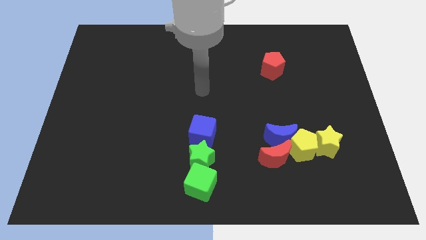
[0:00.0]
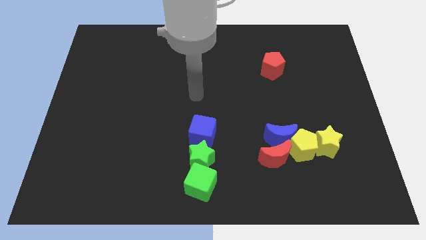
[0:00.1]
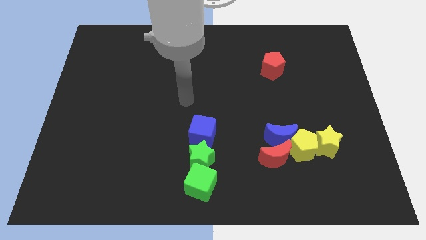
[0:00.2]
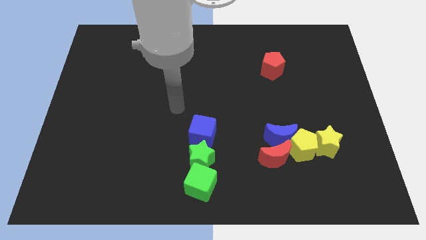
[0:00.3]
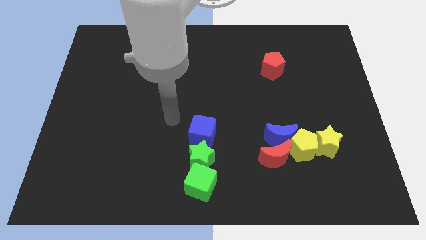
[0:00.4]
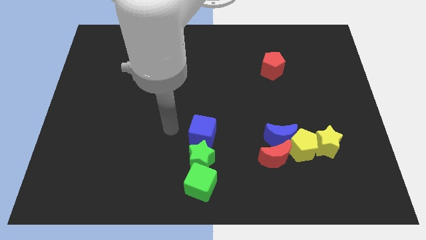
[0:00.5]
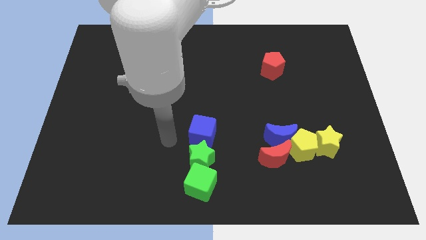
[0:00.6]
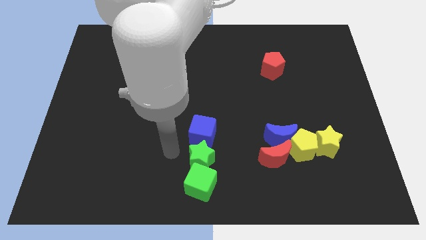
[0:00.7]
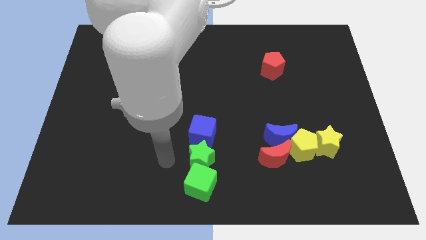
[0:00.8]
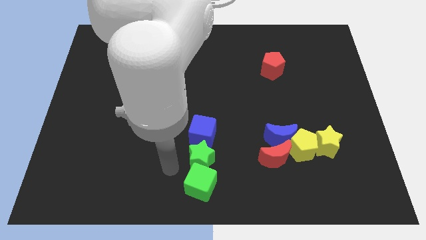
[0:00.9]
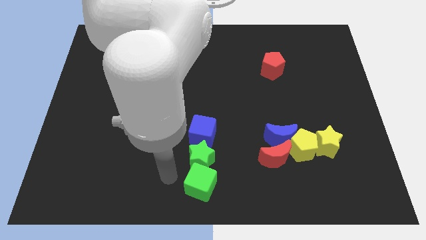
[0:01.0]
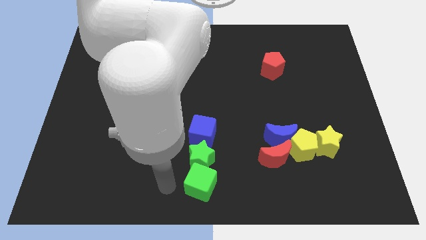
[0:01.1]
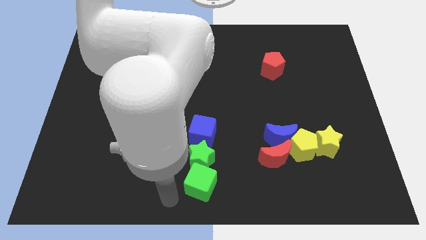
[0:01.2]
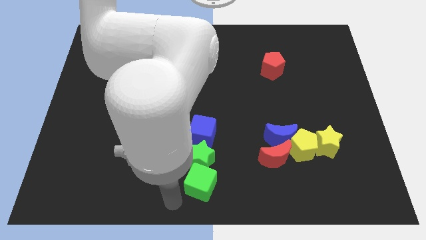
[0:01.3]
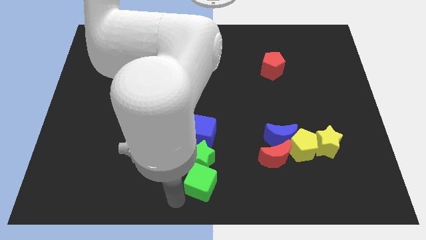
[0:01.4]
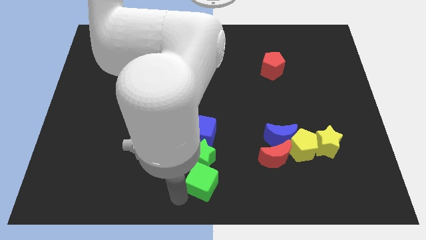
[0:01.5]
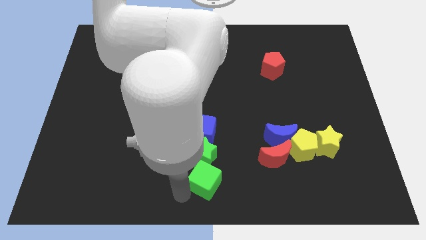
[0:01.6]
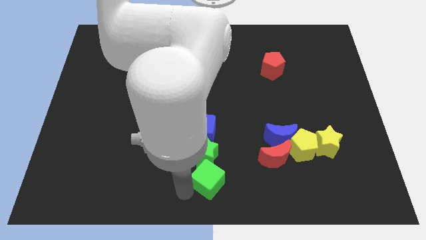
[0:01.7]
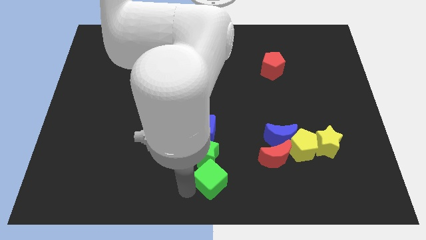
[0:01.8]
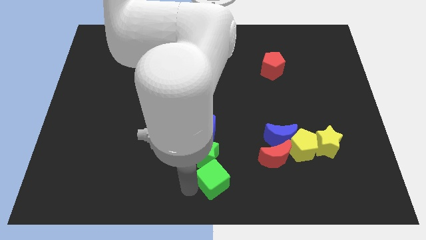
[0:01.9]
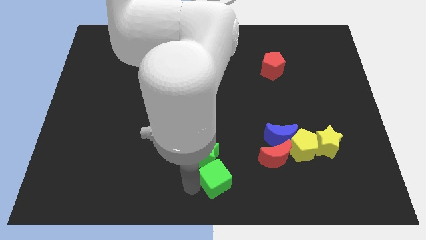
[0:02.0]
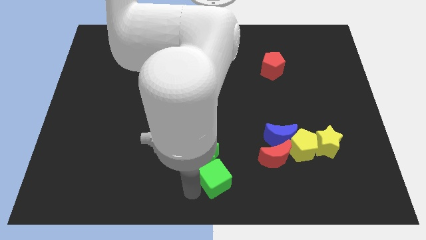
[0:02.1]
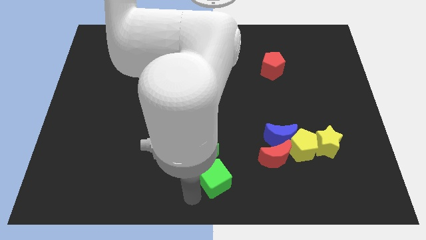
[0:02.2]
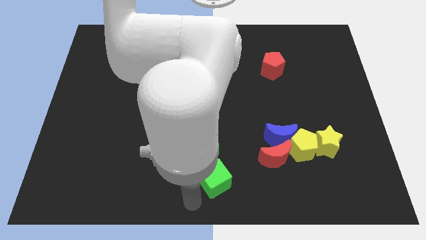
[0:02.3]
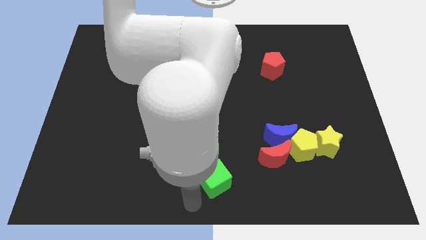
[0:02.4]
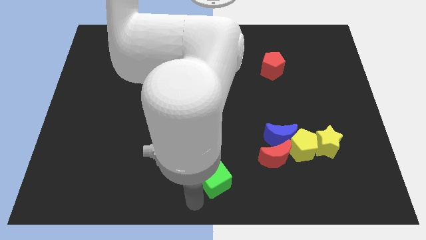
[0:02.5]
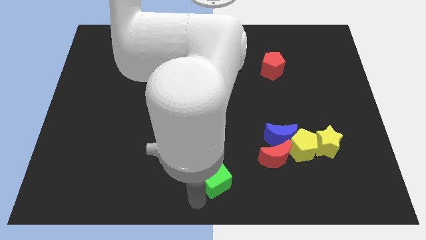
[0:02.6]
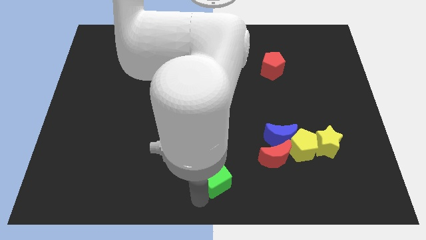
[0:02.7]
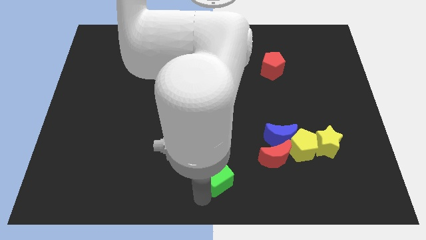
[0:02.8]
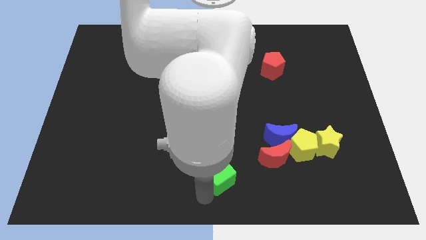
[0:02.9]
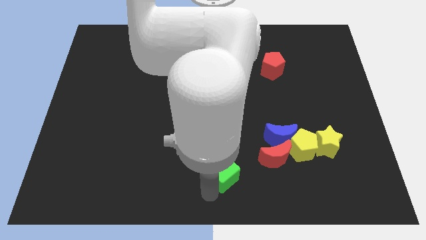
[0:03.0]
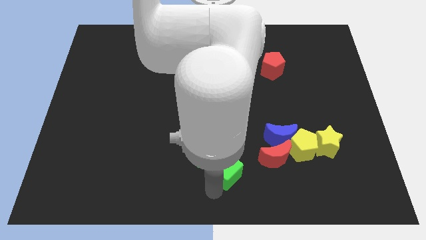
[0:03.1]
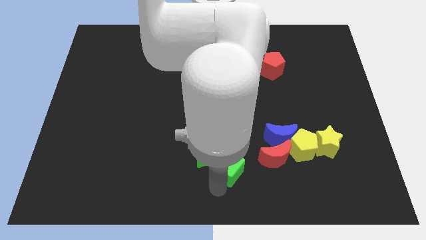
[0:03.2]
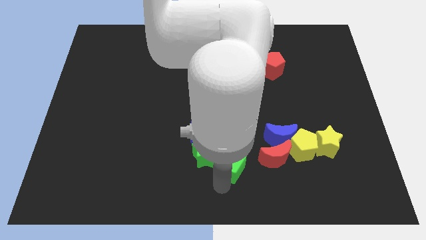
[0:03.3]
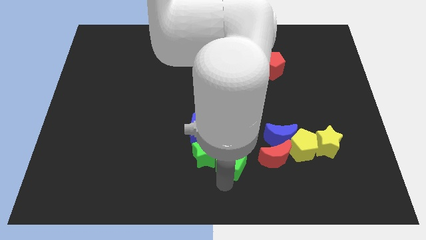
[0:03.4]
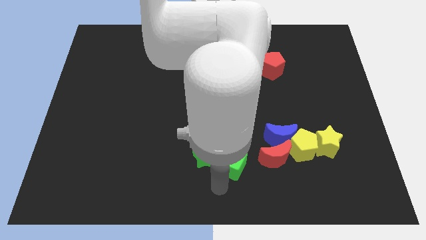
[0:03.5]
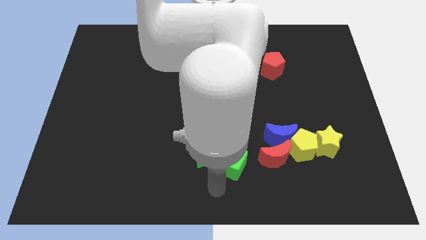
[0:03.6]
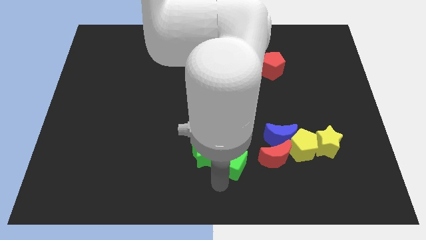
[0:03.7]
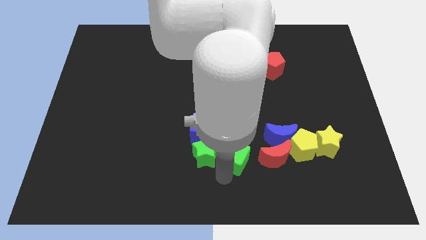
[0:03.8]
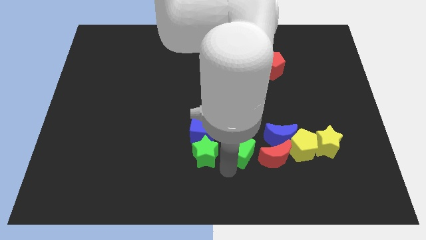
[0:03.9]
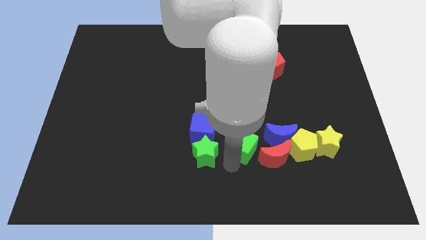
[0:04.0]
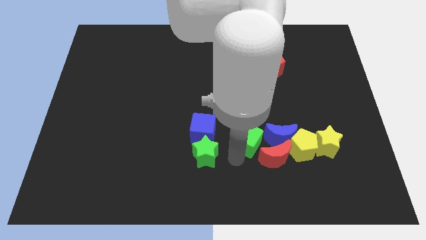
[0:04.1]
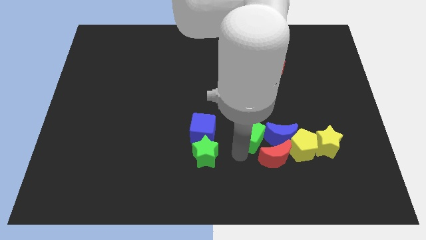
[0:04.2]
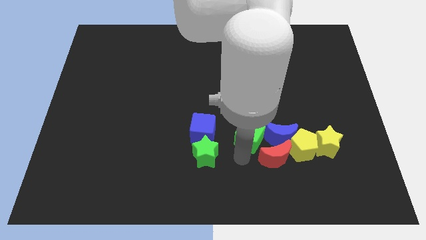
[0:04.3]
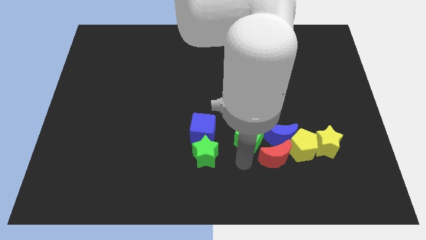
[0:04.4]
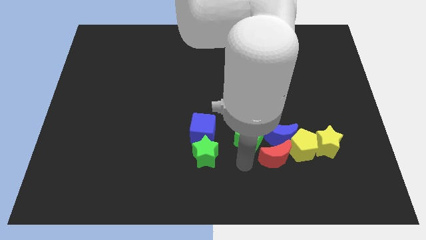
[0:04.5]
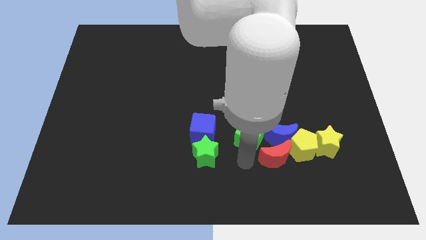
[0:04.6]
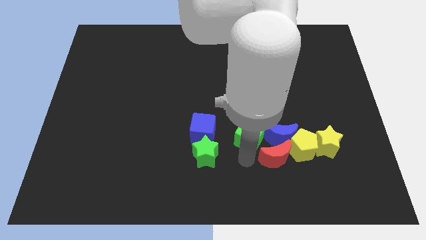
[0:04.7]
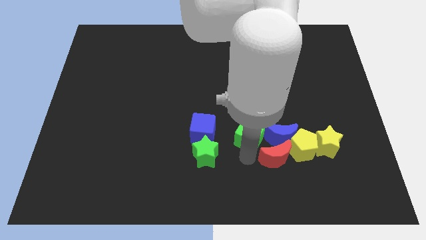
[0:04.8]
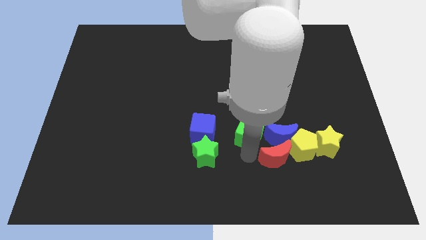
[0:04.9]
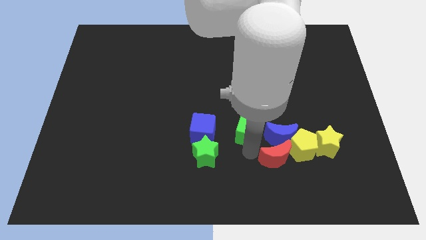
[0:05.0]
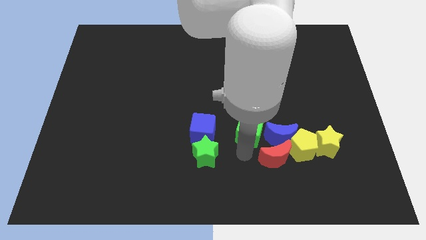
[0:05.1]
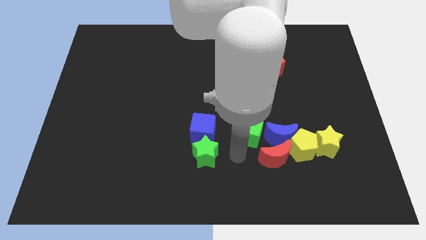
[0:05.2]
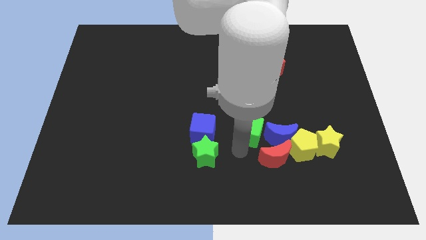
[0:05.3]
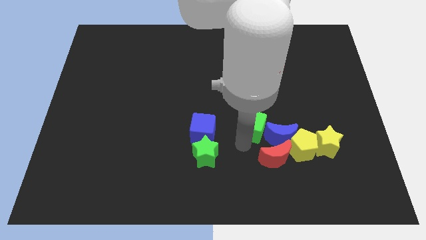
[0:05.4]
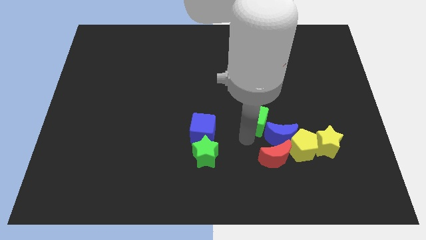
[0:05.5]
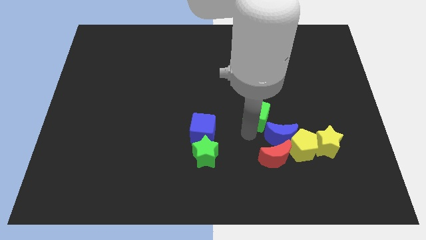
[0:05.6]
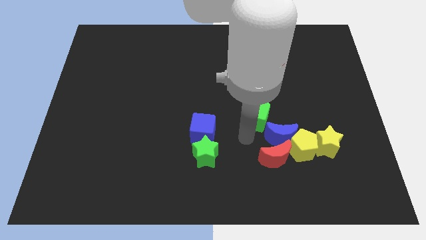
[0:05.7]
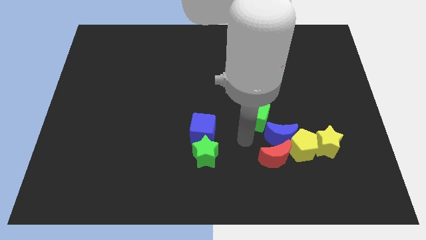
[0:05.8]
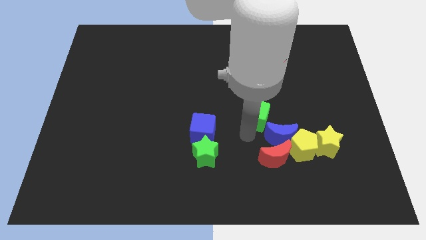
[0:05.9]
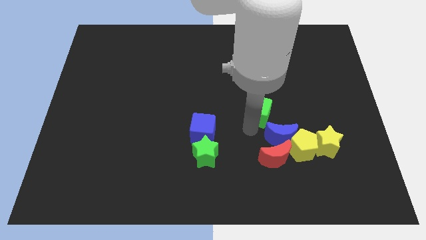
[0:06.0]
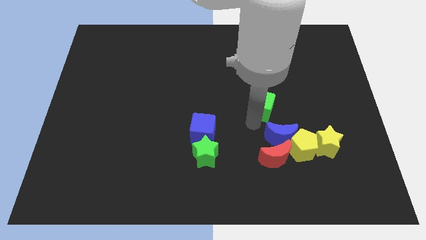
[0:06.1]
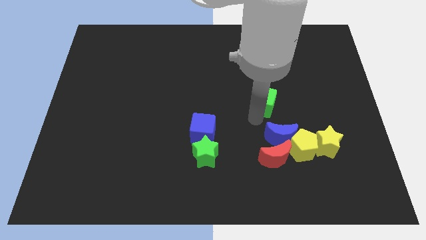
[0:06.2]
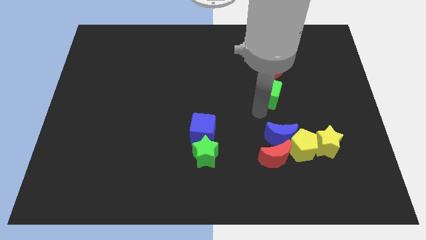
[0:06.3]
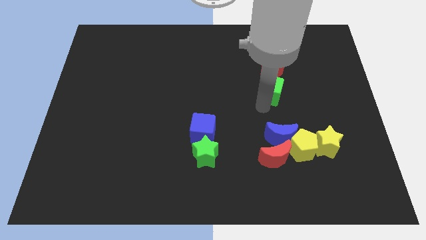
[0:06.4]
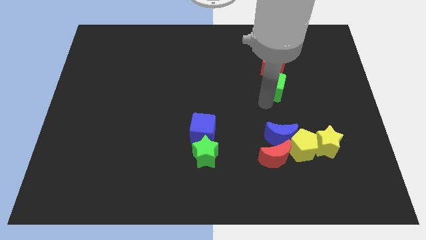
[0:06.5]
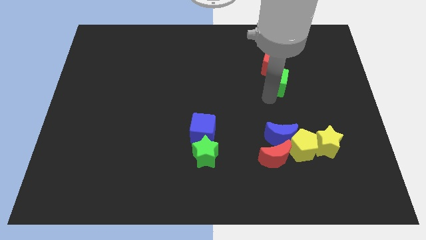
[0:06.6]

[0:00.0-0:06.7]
push the green cube towards the red pentagon
